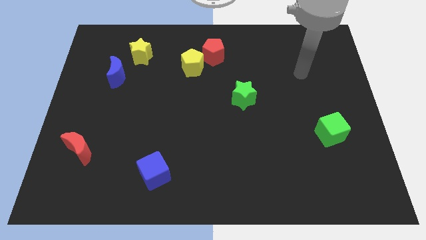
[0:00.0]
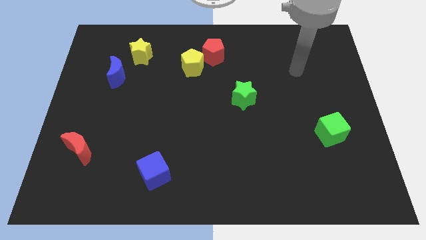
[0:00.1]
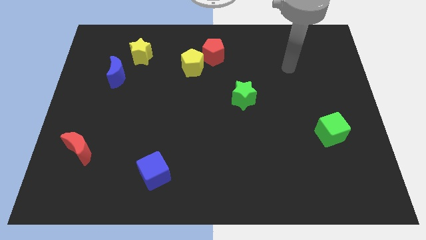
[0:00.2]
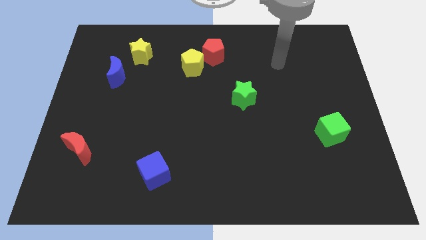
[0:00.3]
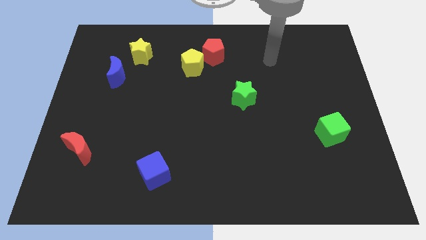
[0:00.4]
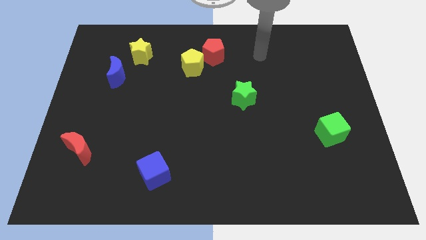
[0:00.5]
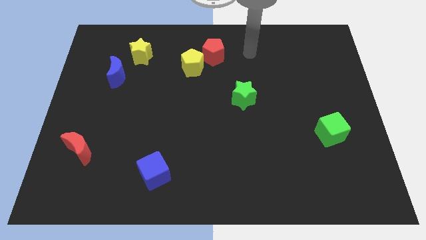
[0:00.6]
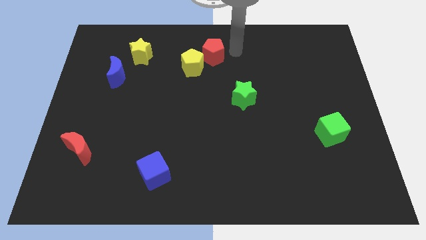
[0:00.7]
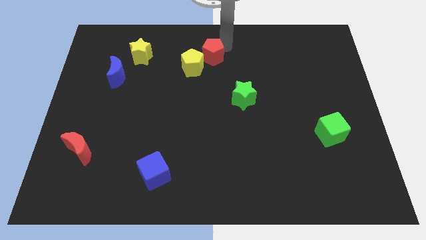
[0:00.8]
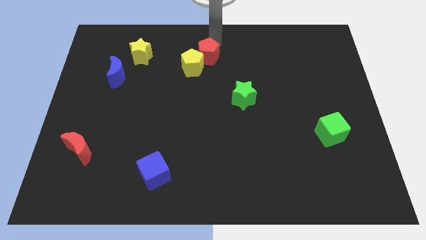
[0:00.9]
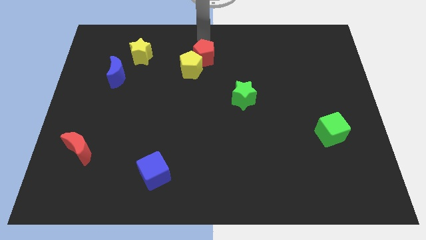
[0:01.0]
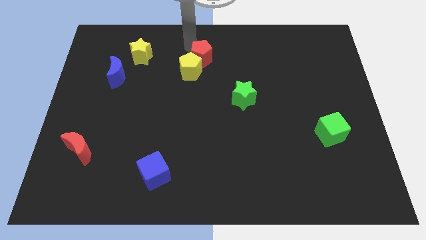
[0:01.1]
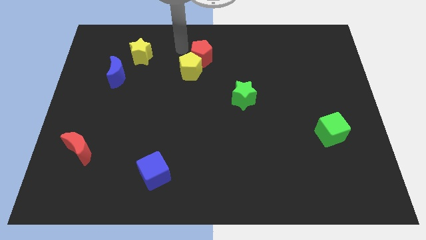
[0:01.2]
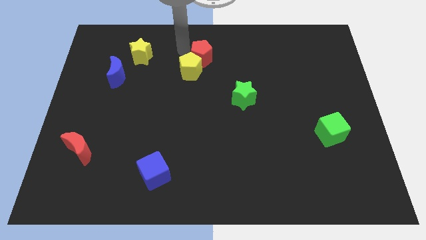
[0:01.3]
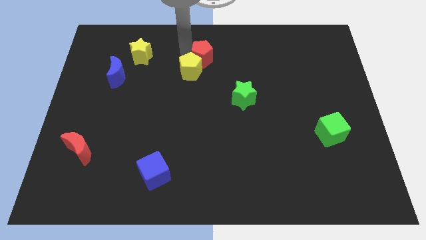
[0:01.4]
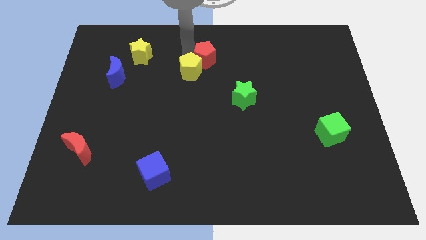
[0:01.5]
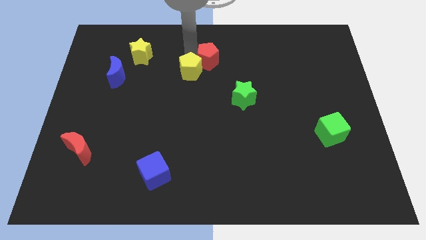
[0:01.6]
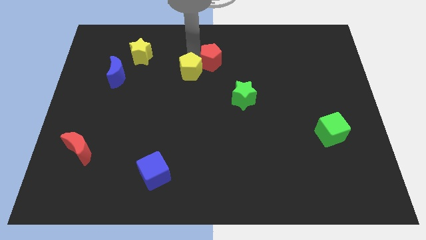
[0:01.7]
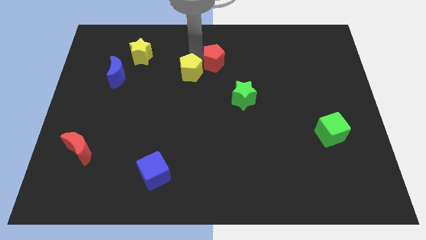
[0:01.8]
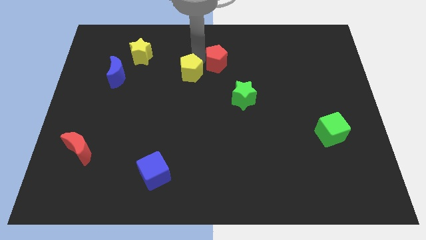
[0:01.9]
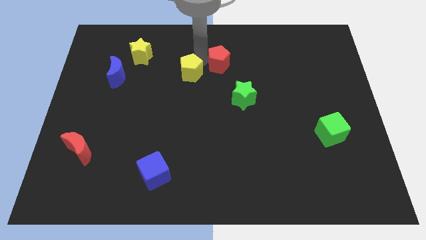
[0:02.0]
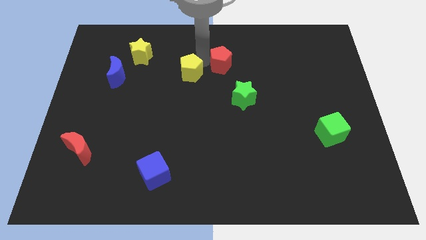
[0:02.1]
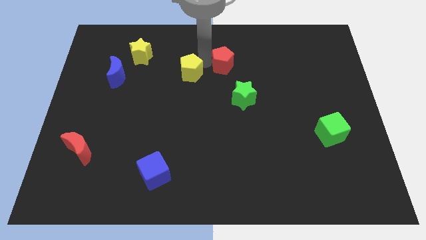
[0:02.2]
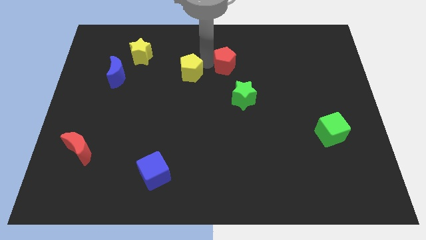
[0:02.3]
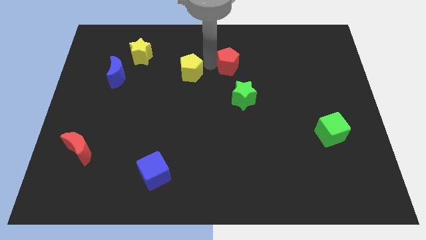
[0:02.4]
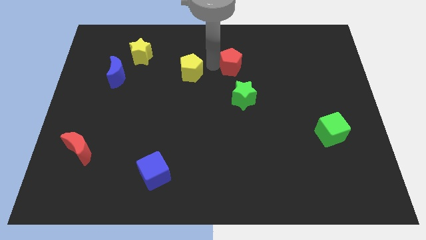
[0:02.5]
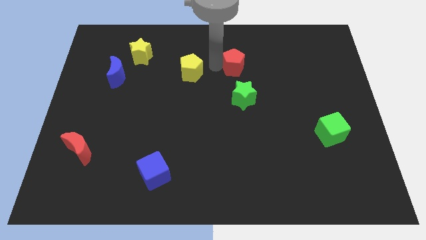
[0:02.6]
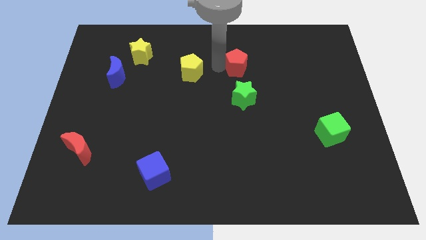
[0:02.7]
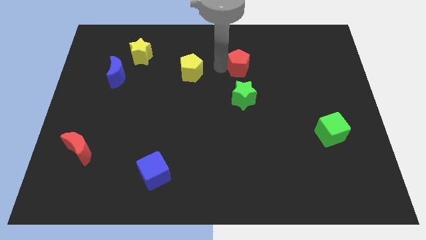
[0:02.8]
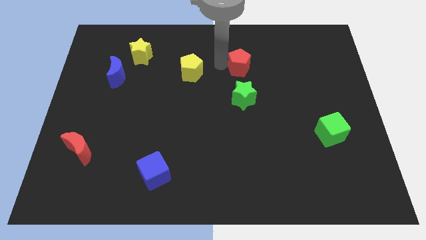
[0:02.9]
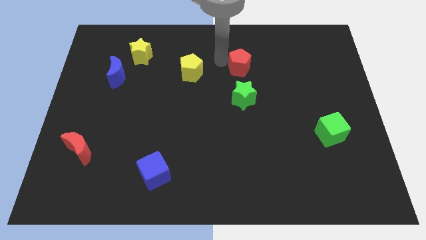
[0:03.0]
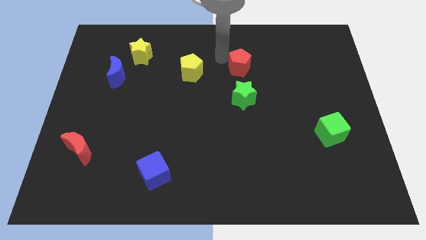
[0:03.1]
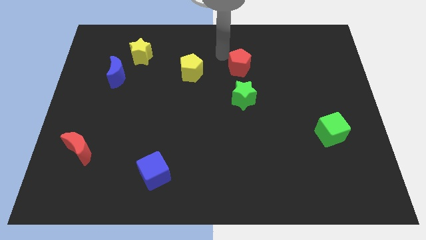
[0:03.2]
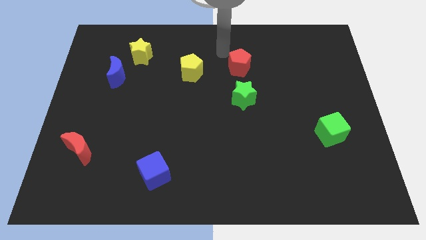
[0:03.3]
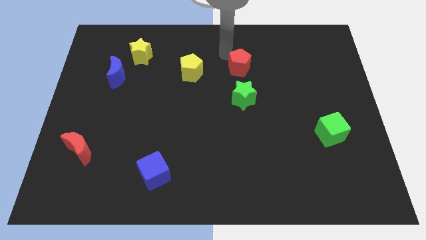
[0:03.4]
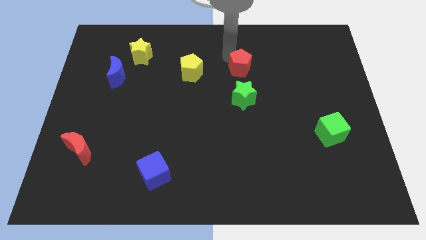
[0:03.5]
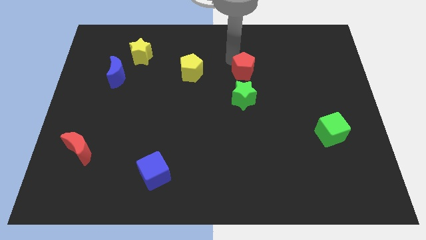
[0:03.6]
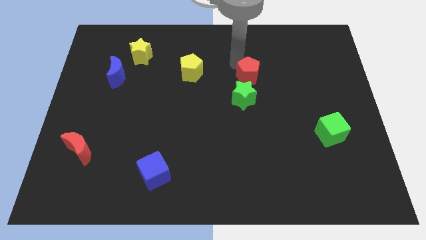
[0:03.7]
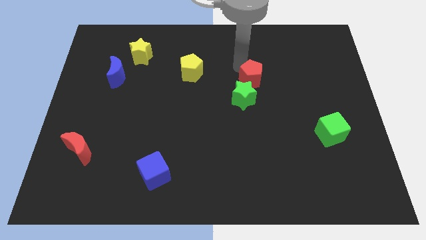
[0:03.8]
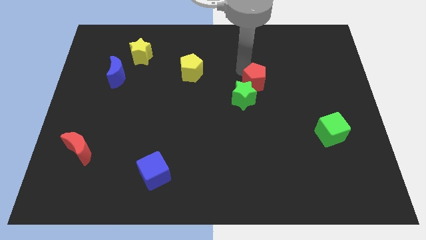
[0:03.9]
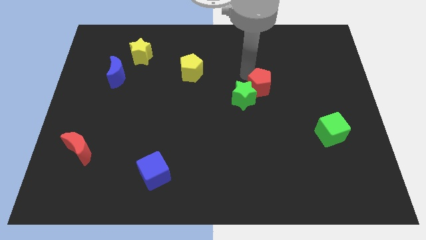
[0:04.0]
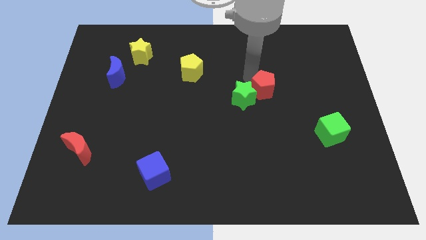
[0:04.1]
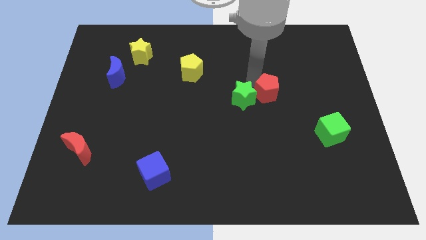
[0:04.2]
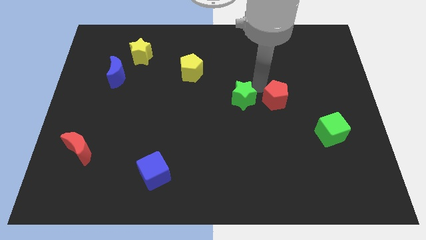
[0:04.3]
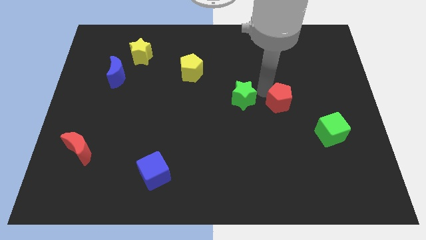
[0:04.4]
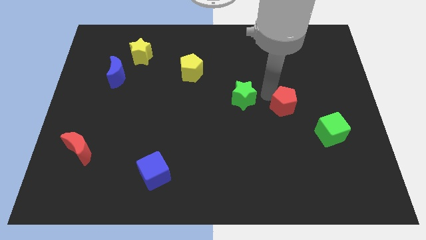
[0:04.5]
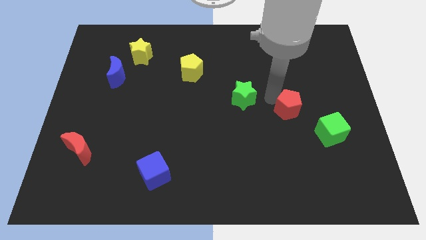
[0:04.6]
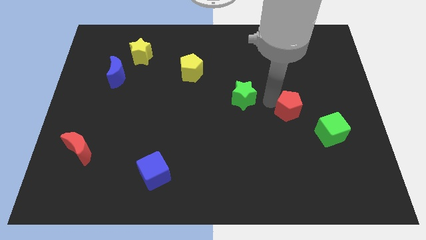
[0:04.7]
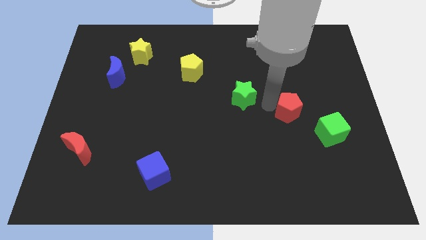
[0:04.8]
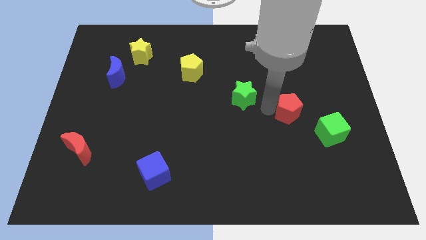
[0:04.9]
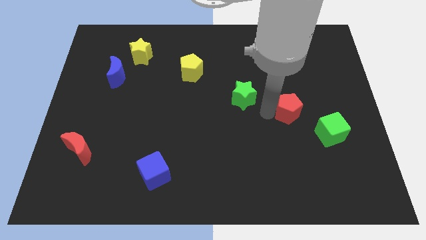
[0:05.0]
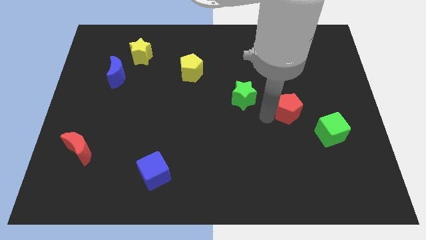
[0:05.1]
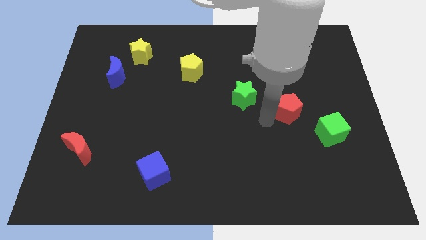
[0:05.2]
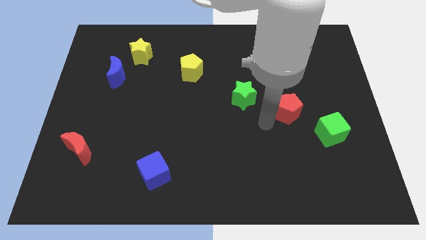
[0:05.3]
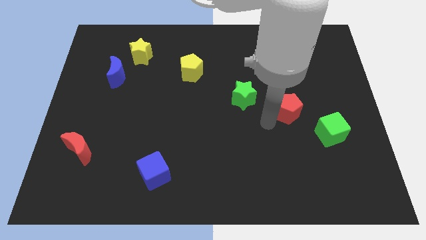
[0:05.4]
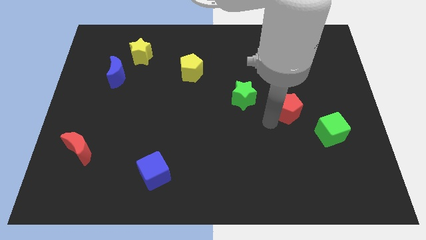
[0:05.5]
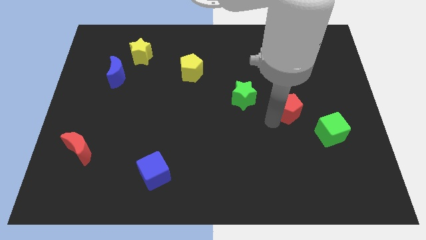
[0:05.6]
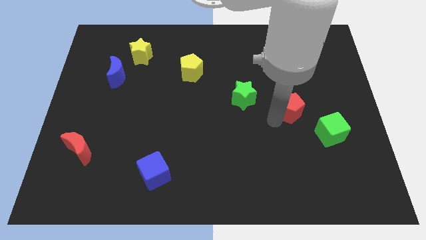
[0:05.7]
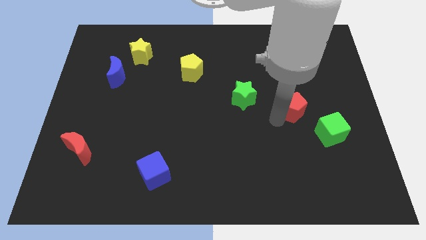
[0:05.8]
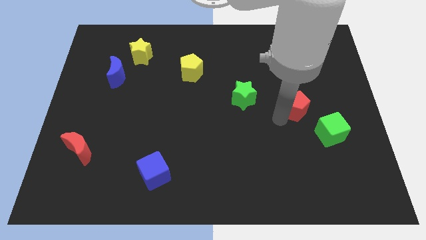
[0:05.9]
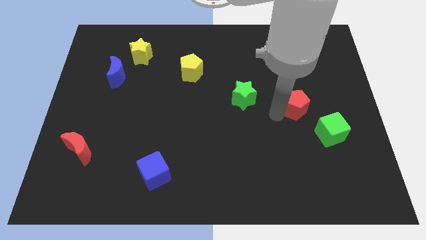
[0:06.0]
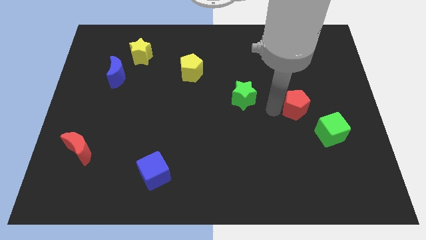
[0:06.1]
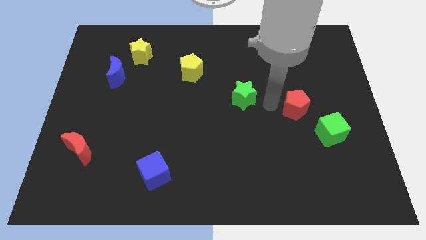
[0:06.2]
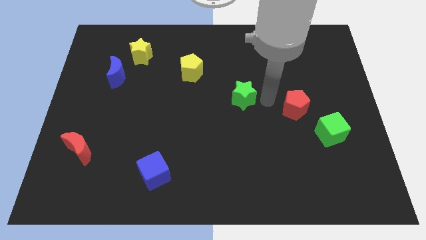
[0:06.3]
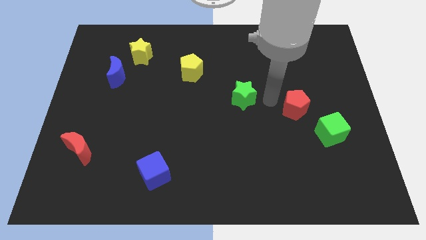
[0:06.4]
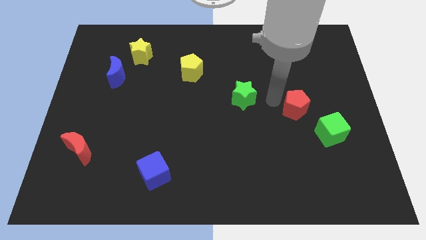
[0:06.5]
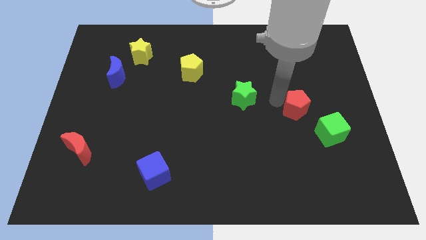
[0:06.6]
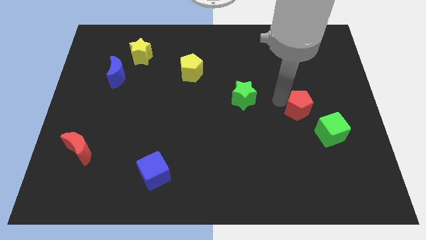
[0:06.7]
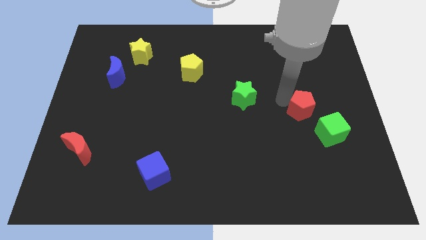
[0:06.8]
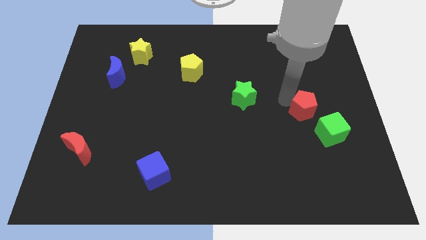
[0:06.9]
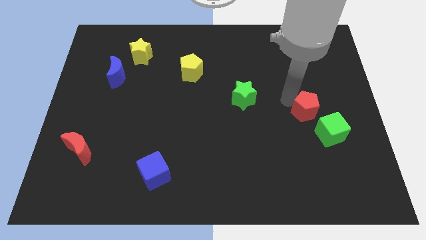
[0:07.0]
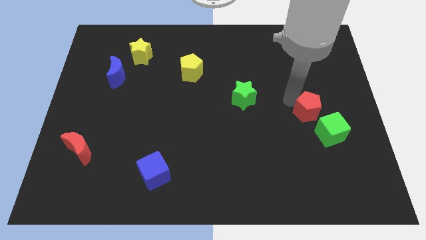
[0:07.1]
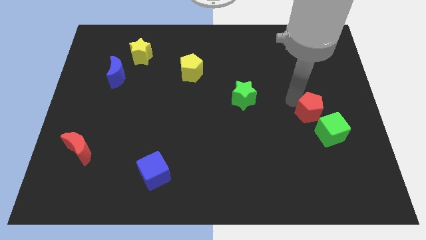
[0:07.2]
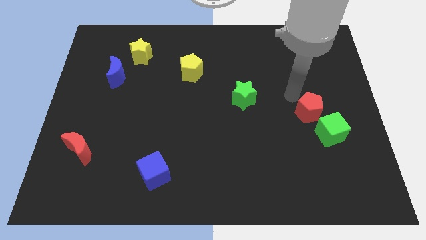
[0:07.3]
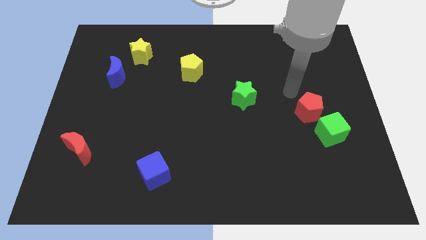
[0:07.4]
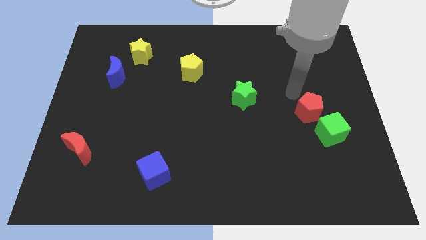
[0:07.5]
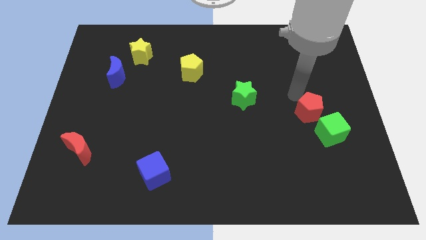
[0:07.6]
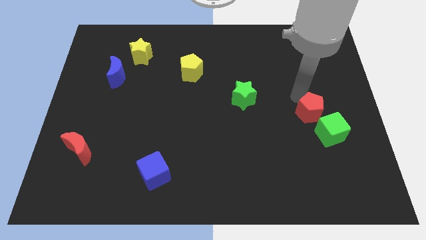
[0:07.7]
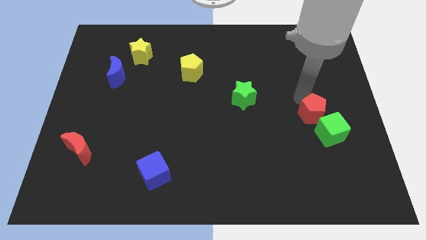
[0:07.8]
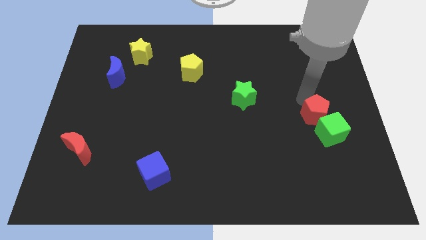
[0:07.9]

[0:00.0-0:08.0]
slide the red pentagon towards the green cube
